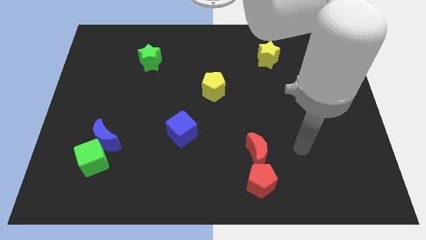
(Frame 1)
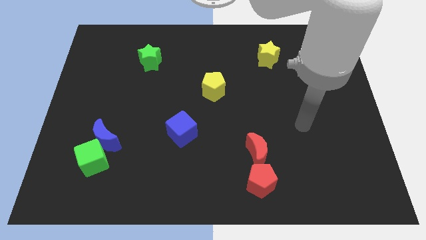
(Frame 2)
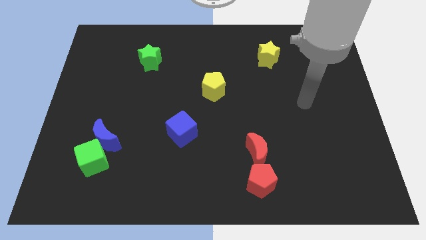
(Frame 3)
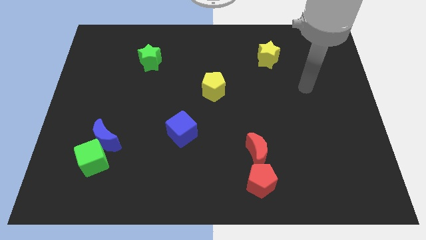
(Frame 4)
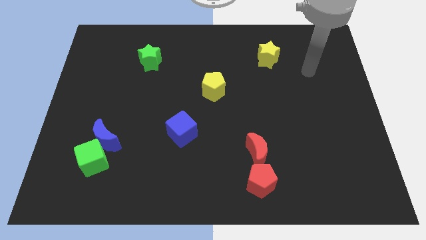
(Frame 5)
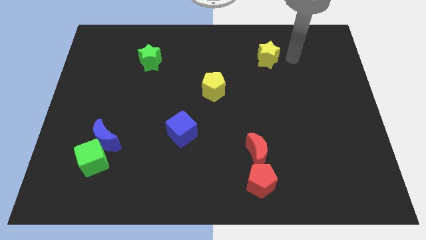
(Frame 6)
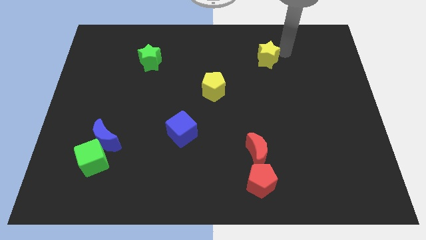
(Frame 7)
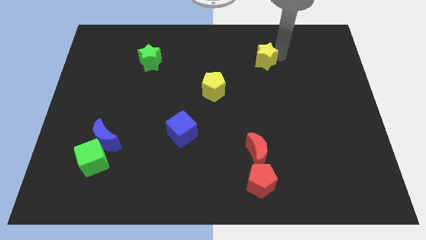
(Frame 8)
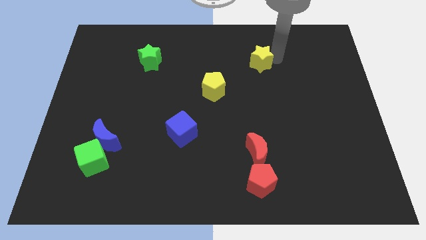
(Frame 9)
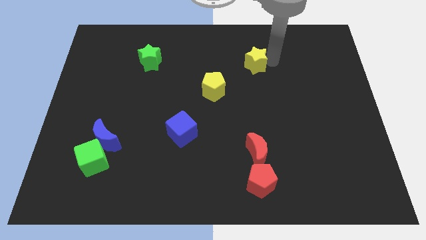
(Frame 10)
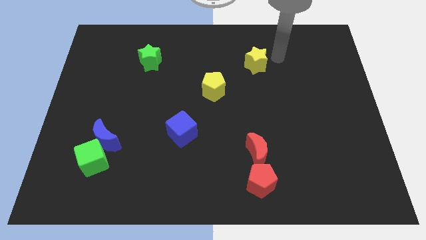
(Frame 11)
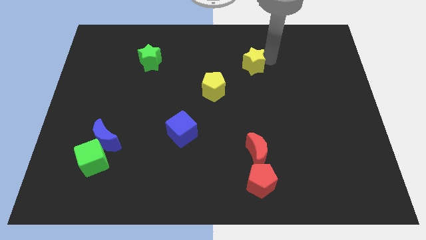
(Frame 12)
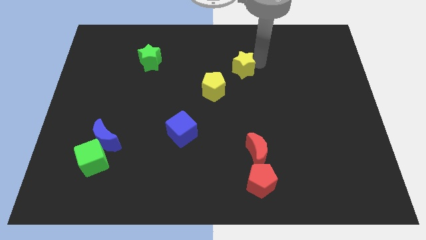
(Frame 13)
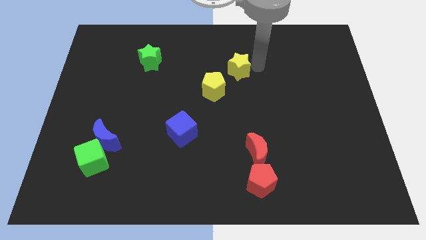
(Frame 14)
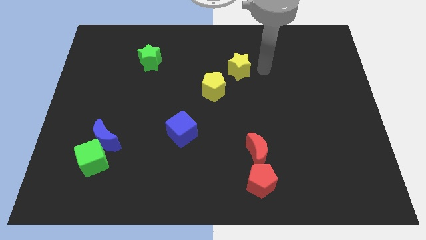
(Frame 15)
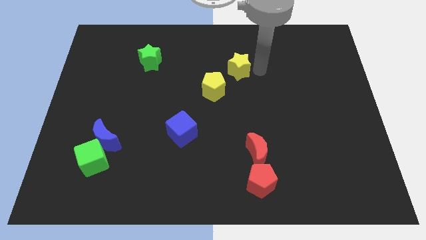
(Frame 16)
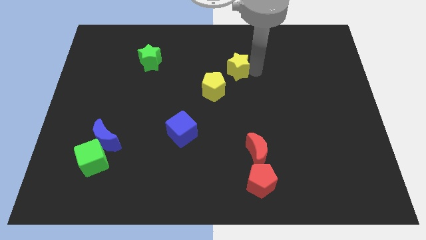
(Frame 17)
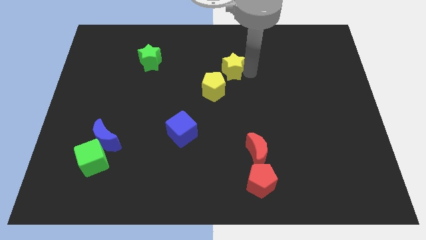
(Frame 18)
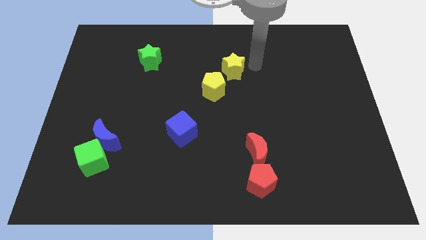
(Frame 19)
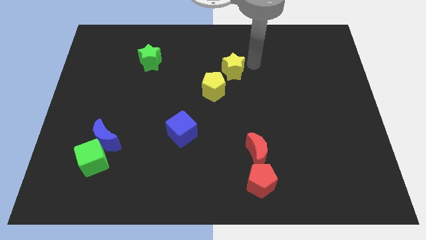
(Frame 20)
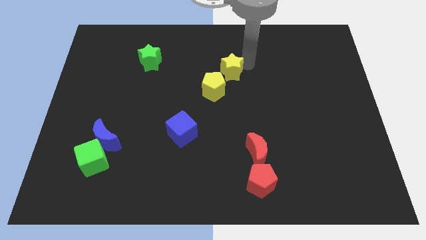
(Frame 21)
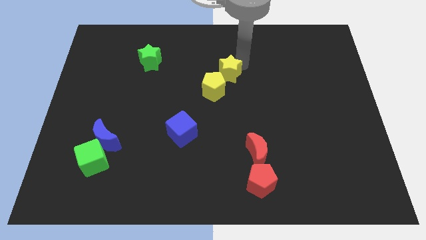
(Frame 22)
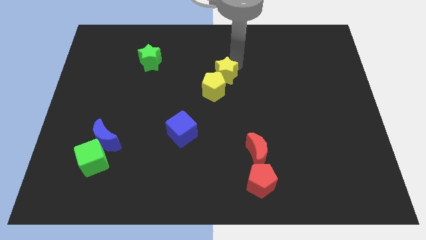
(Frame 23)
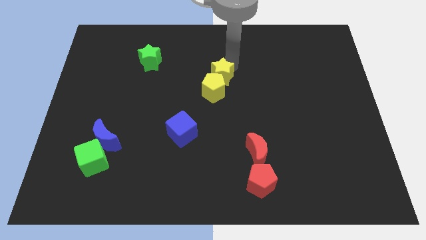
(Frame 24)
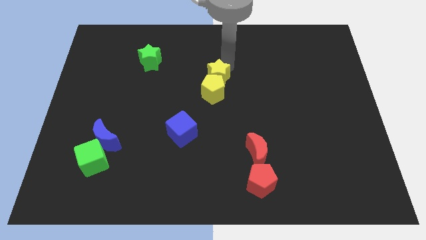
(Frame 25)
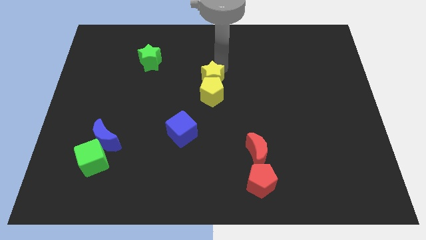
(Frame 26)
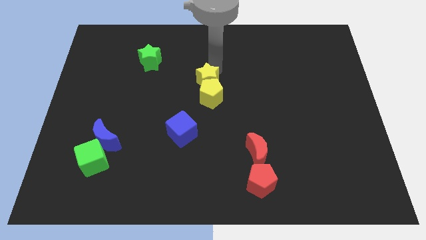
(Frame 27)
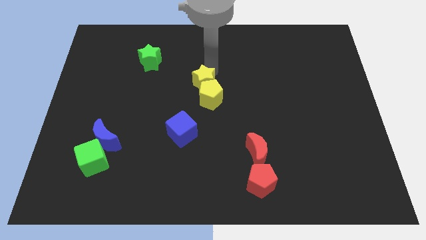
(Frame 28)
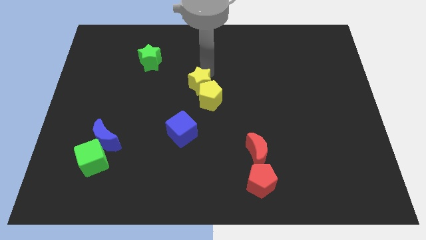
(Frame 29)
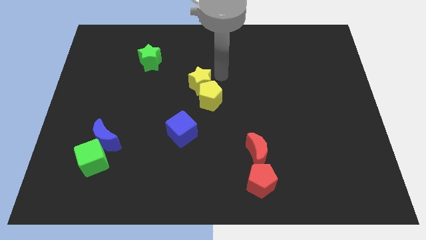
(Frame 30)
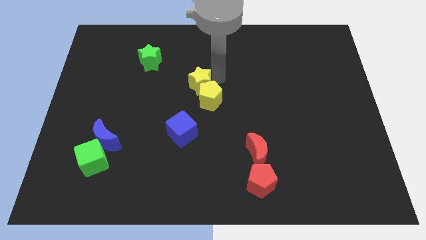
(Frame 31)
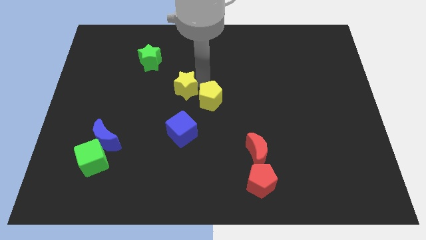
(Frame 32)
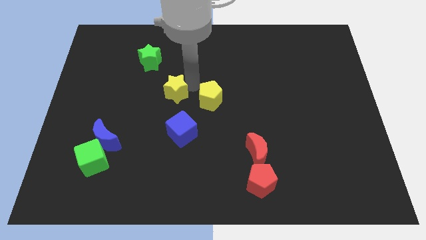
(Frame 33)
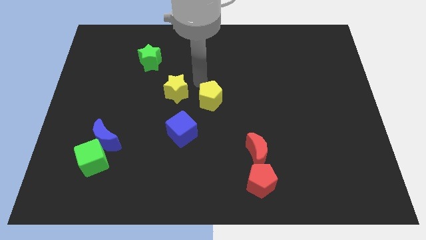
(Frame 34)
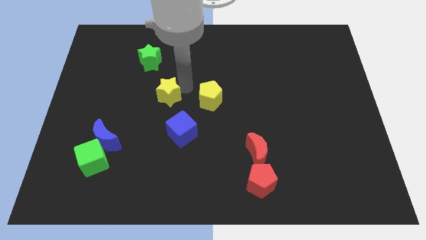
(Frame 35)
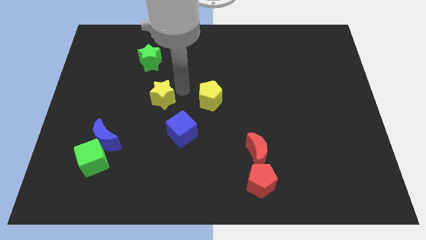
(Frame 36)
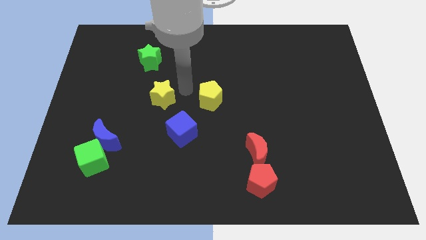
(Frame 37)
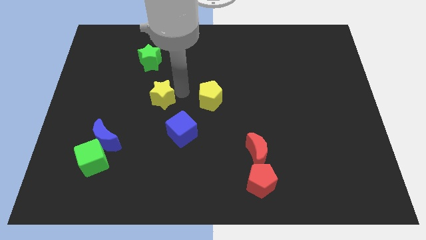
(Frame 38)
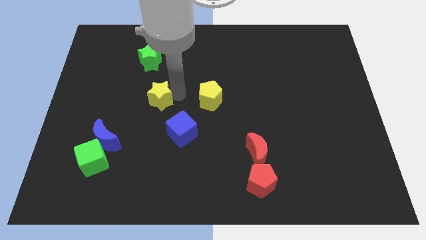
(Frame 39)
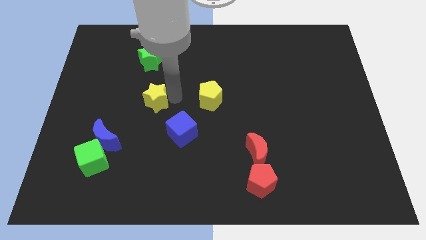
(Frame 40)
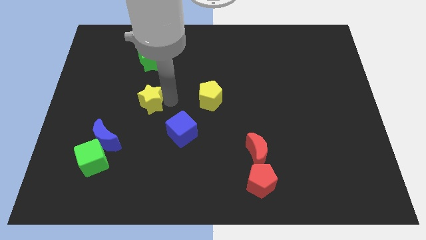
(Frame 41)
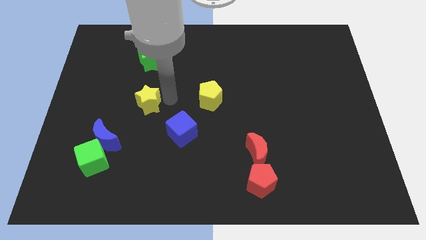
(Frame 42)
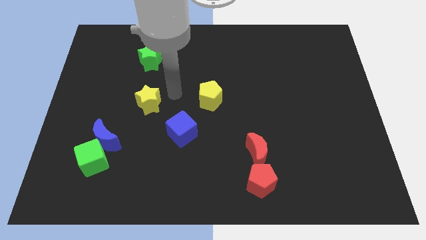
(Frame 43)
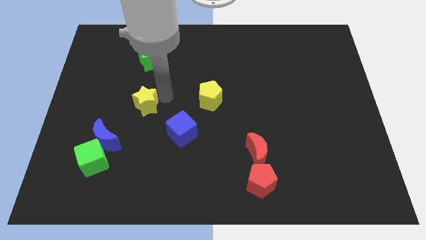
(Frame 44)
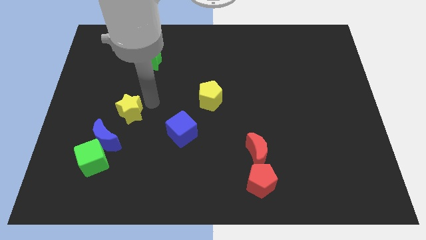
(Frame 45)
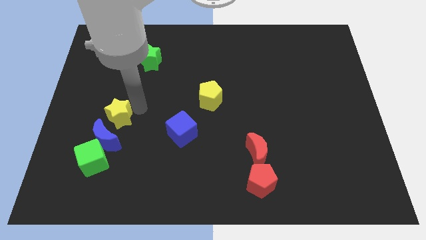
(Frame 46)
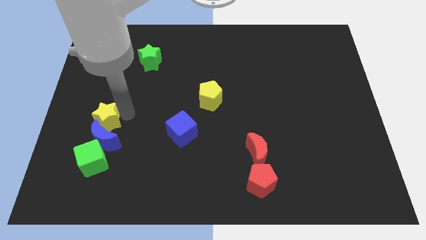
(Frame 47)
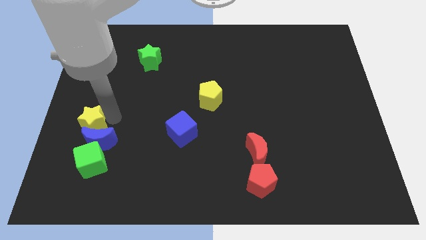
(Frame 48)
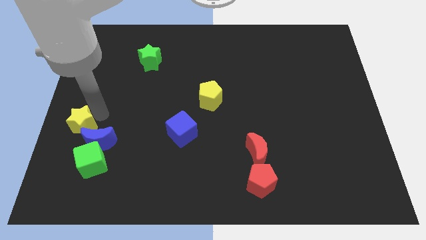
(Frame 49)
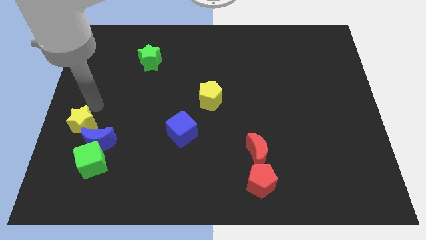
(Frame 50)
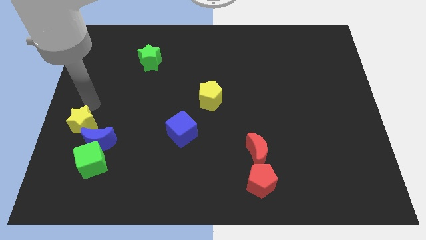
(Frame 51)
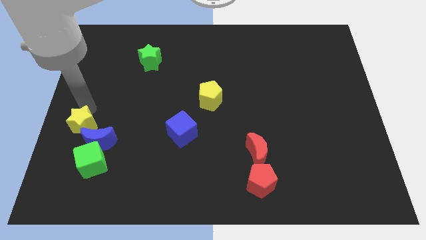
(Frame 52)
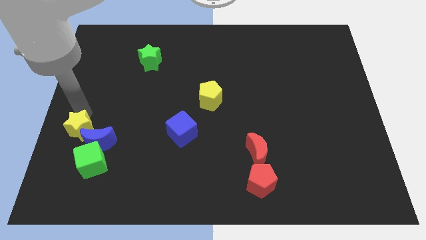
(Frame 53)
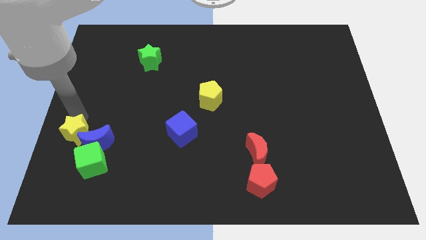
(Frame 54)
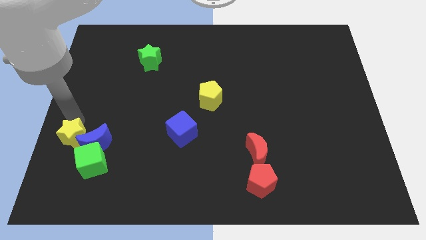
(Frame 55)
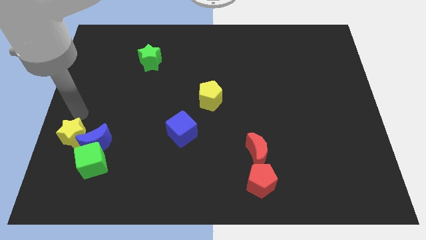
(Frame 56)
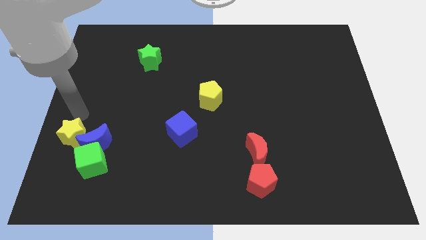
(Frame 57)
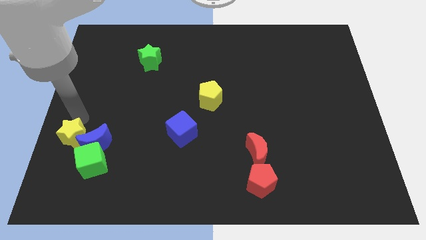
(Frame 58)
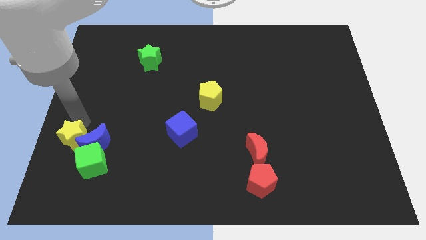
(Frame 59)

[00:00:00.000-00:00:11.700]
put the yellow star to the bottom left side of the blue moon

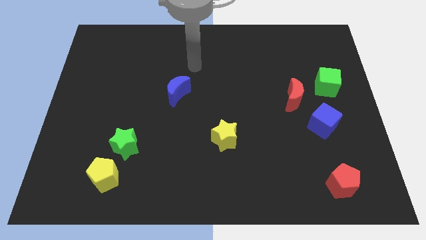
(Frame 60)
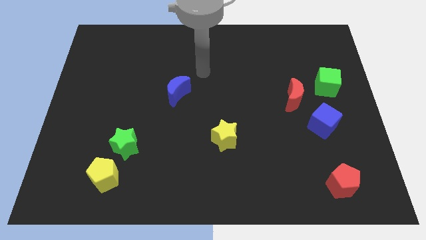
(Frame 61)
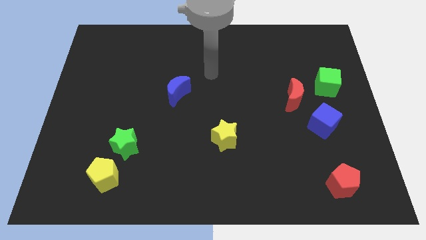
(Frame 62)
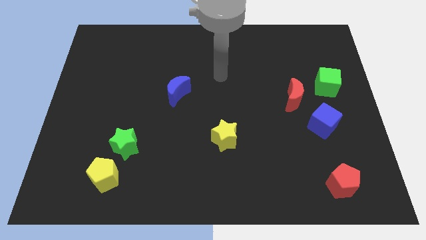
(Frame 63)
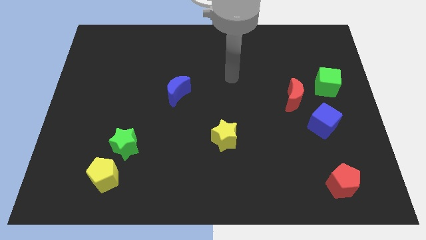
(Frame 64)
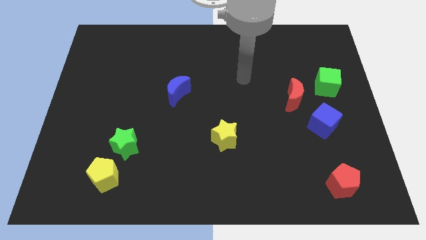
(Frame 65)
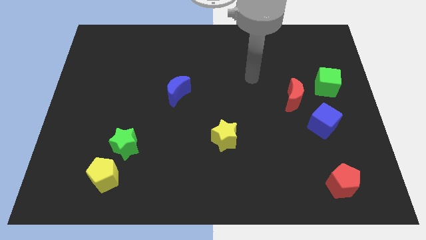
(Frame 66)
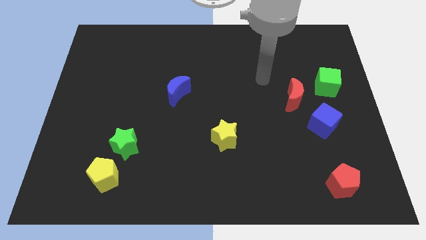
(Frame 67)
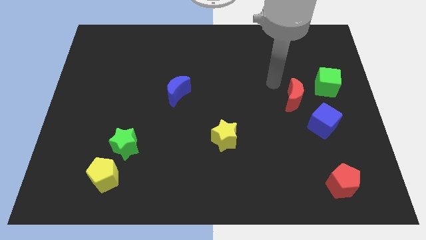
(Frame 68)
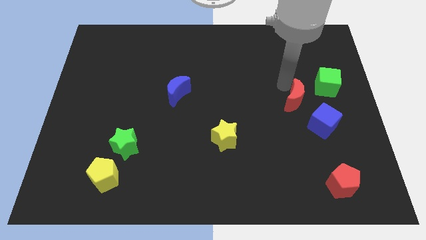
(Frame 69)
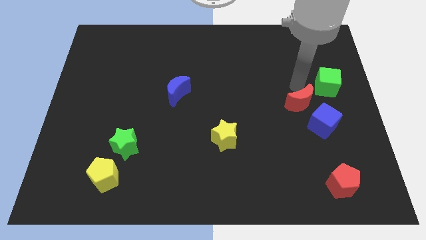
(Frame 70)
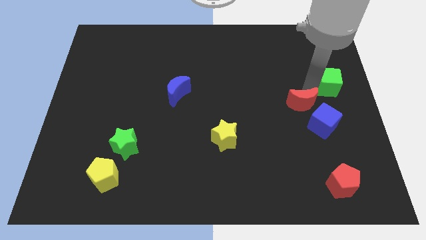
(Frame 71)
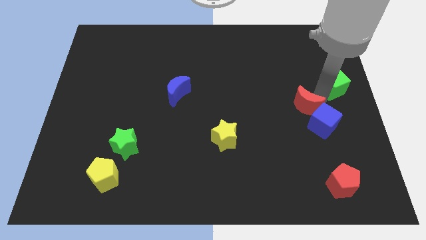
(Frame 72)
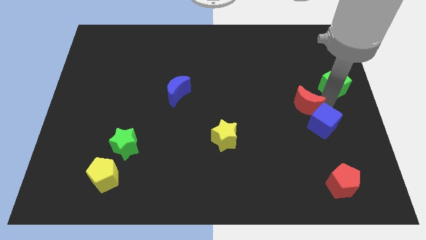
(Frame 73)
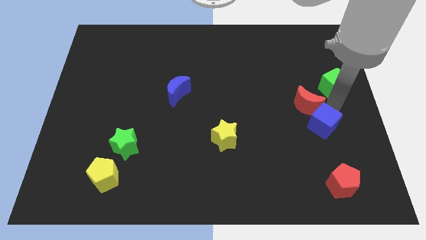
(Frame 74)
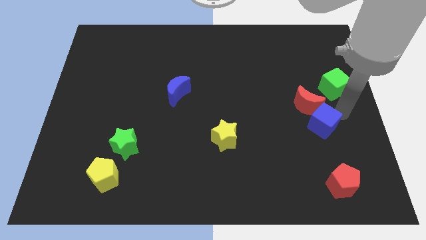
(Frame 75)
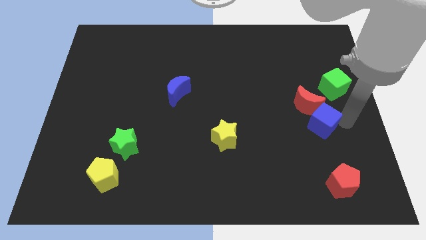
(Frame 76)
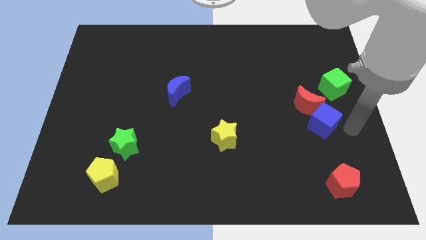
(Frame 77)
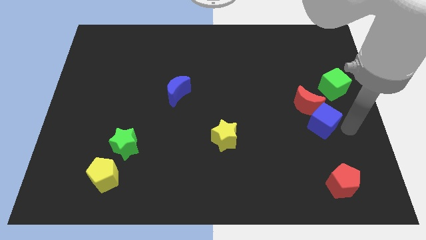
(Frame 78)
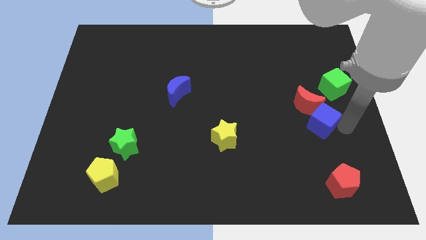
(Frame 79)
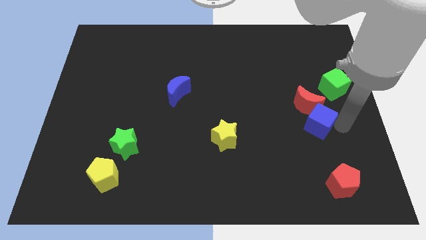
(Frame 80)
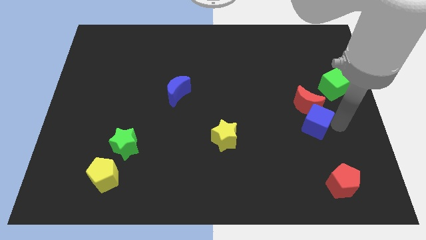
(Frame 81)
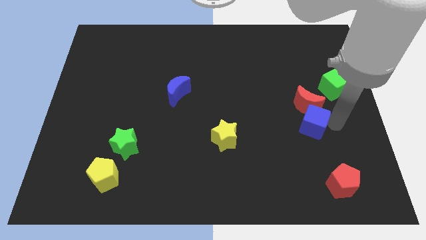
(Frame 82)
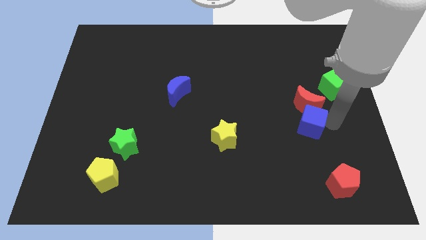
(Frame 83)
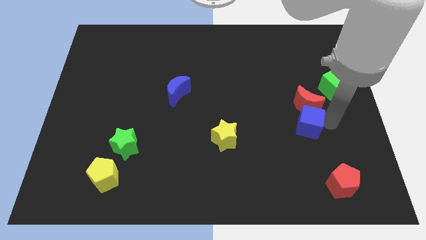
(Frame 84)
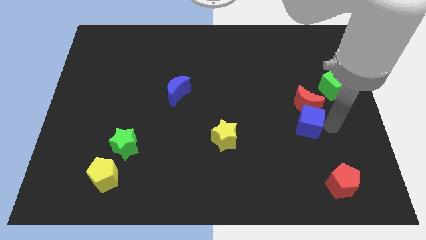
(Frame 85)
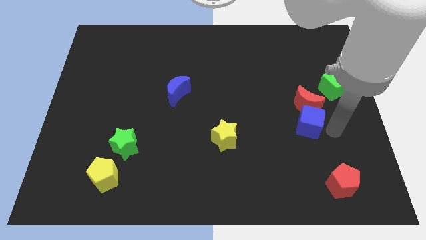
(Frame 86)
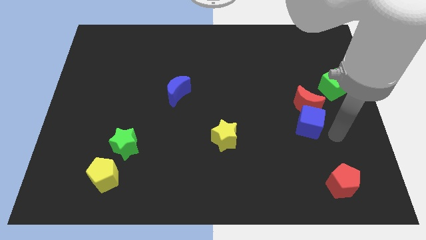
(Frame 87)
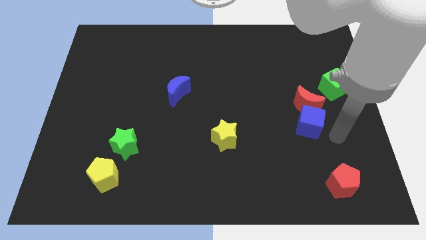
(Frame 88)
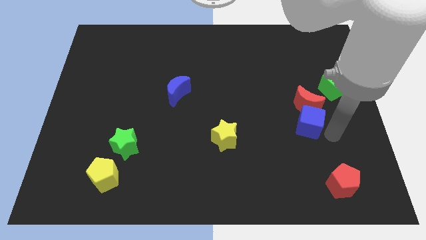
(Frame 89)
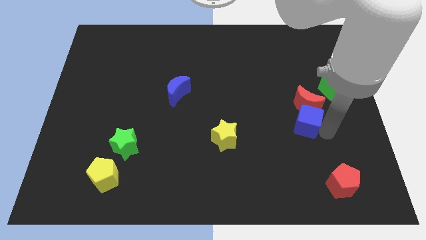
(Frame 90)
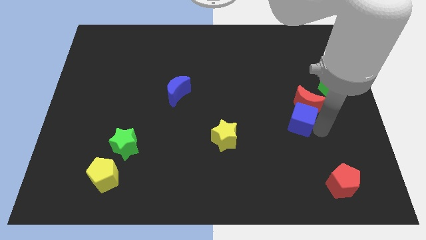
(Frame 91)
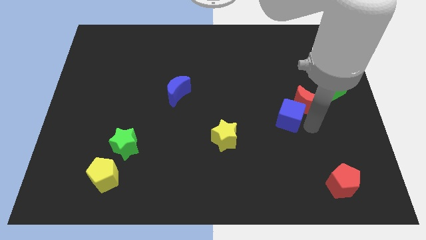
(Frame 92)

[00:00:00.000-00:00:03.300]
push the blue cube to the left side of the red moon
